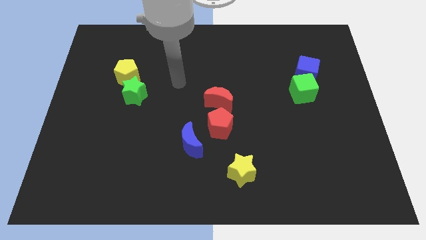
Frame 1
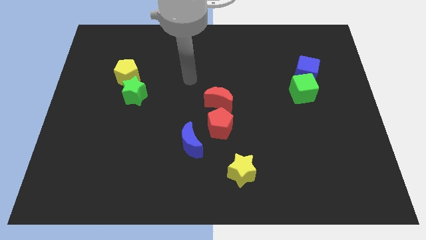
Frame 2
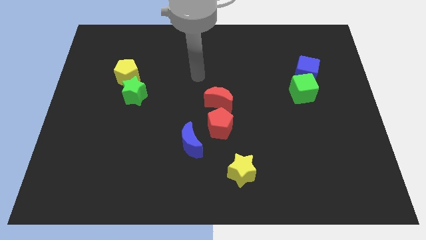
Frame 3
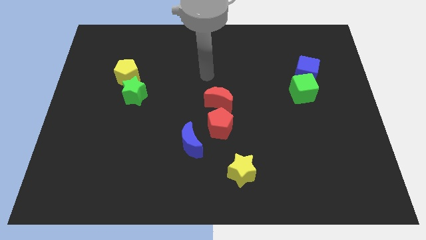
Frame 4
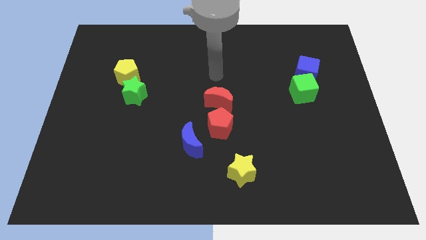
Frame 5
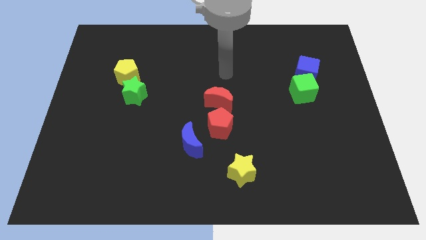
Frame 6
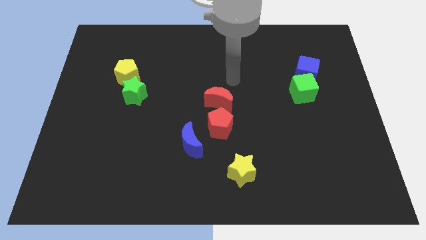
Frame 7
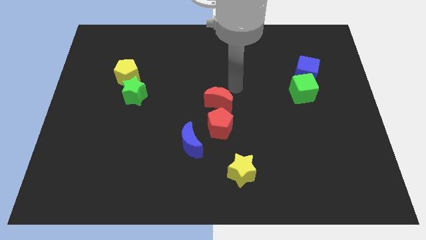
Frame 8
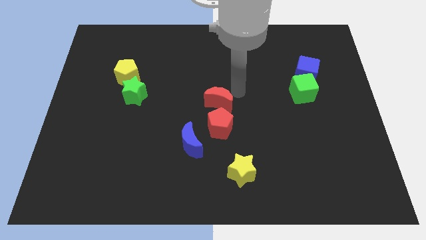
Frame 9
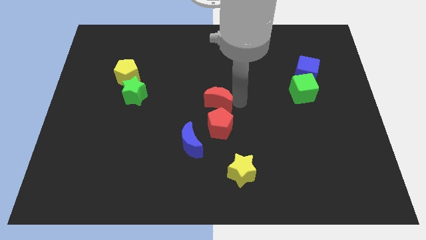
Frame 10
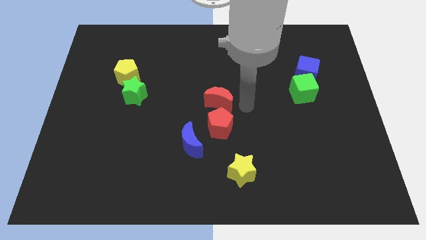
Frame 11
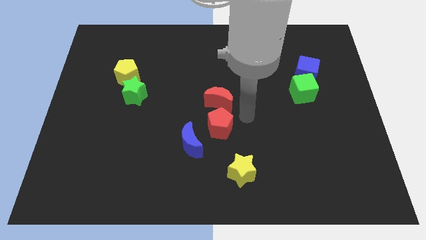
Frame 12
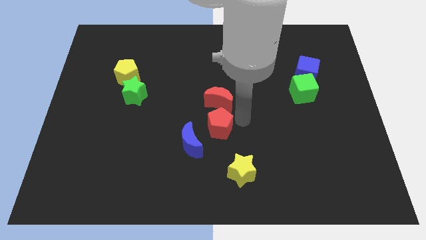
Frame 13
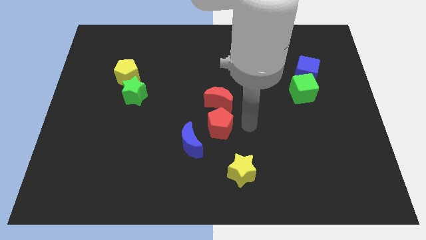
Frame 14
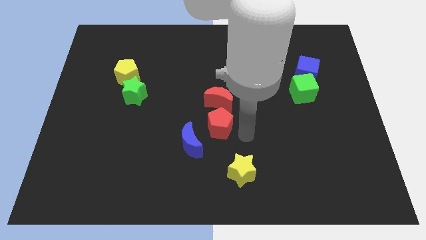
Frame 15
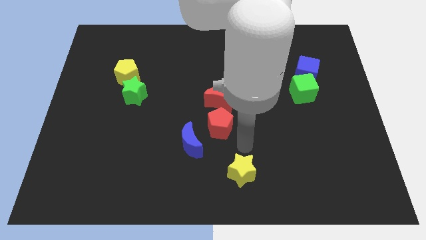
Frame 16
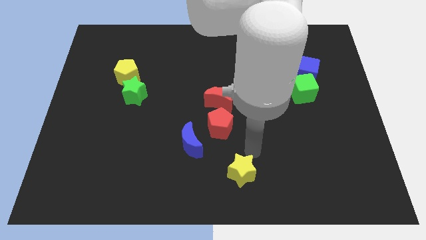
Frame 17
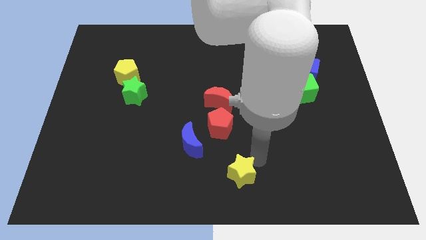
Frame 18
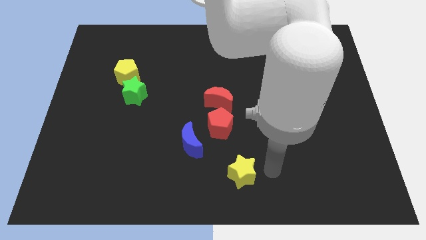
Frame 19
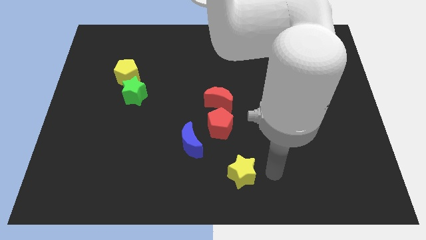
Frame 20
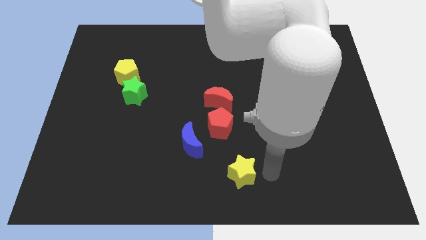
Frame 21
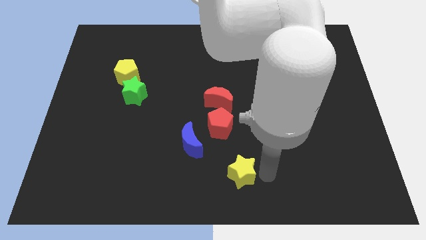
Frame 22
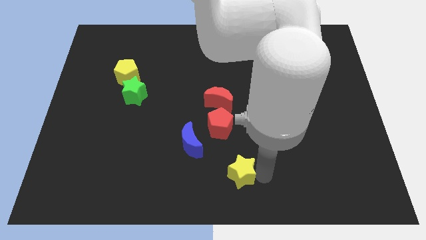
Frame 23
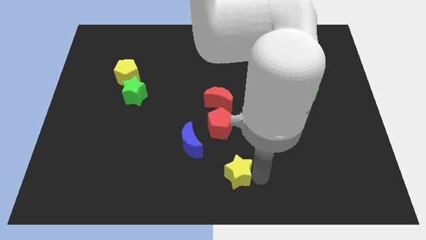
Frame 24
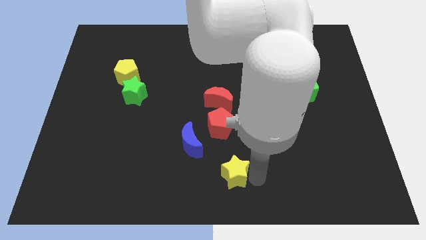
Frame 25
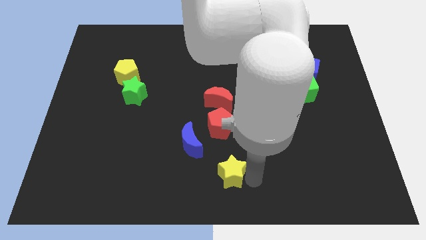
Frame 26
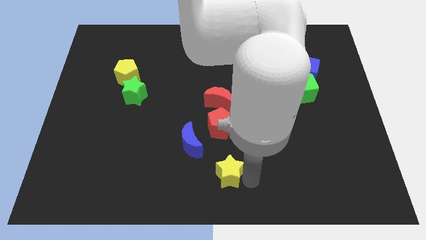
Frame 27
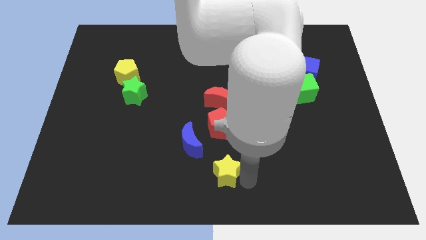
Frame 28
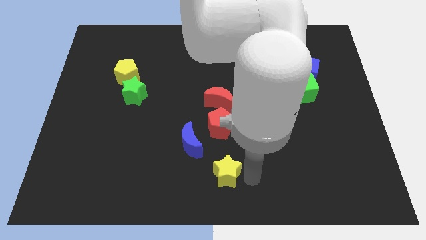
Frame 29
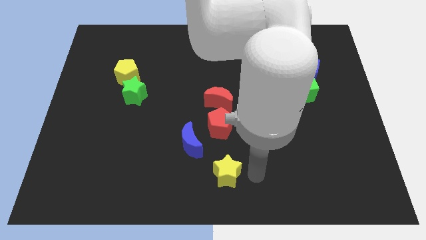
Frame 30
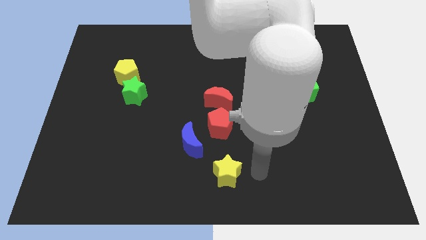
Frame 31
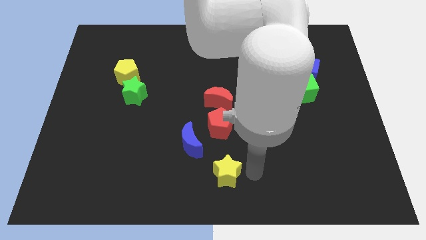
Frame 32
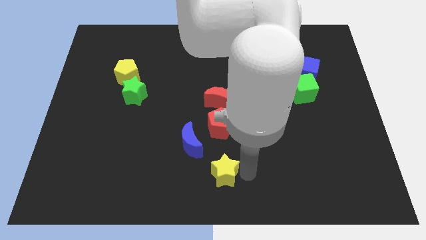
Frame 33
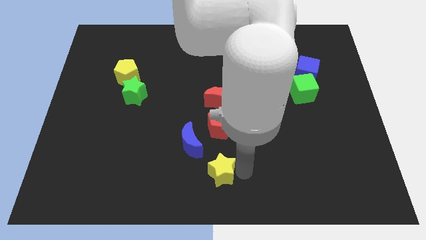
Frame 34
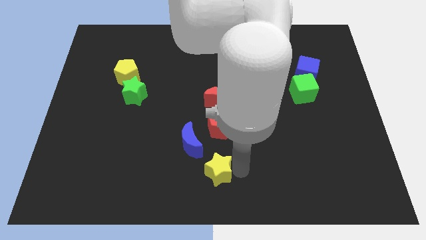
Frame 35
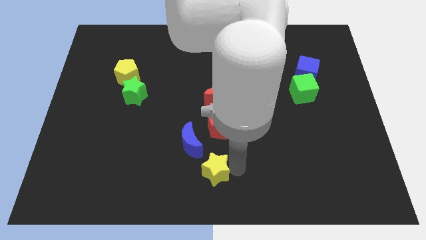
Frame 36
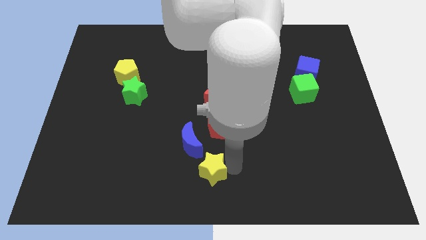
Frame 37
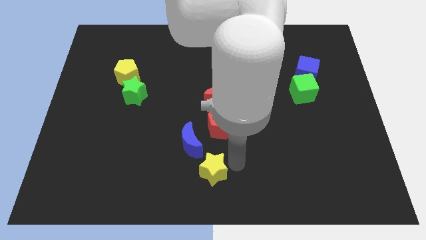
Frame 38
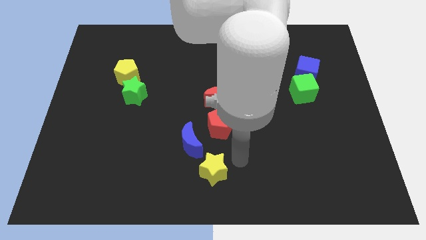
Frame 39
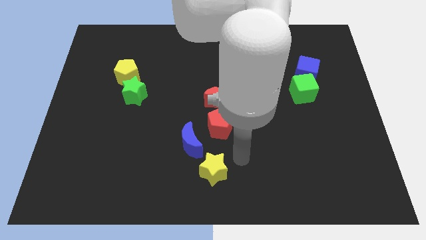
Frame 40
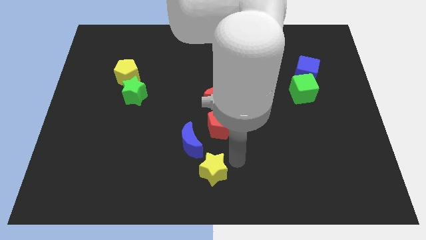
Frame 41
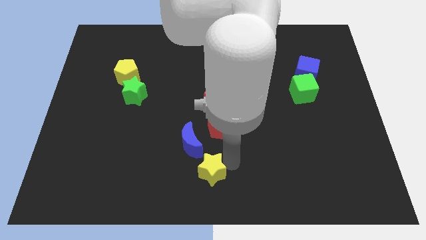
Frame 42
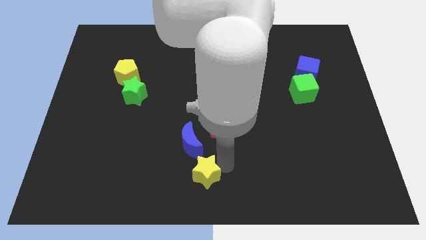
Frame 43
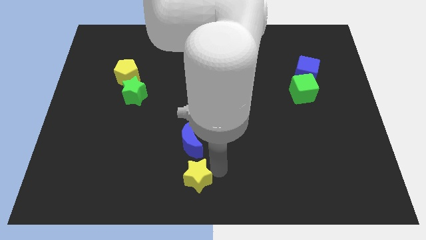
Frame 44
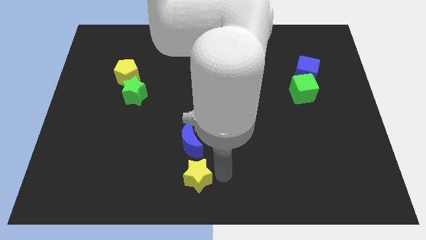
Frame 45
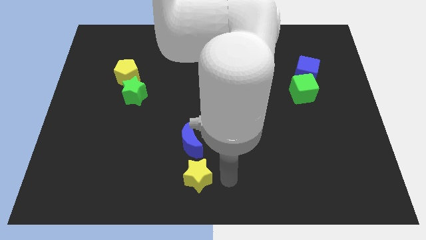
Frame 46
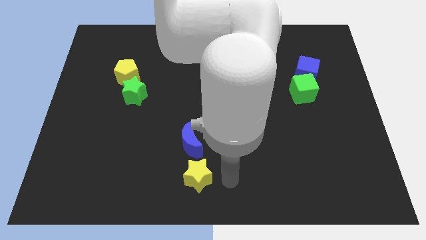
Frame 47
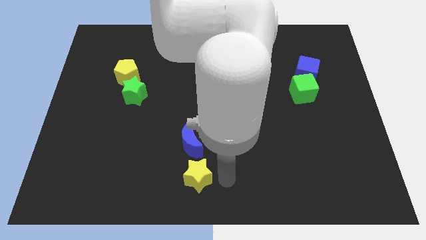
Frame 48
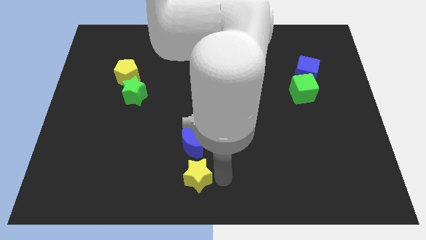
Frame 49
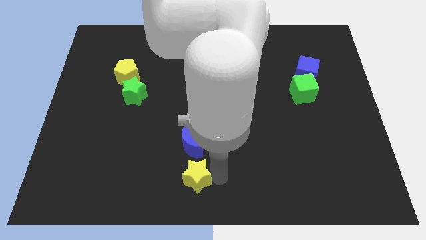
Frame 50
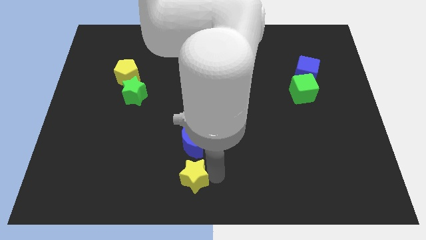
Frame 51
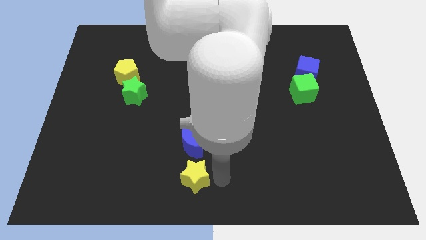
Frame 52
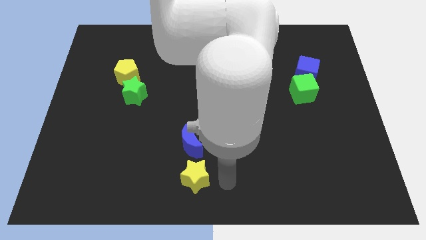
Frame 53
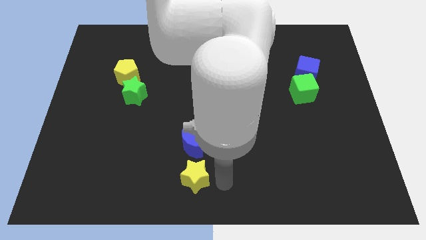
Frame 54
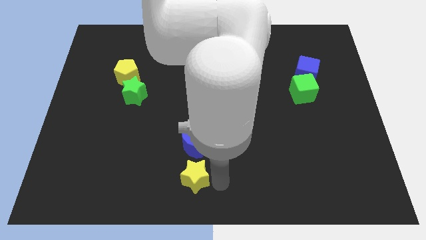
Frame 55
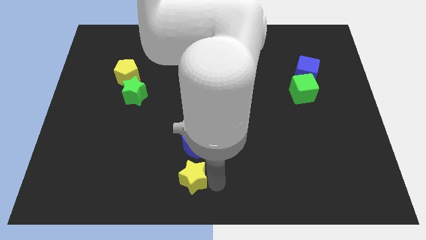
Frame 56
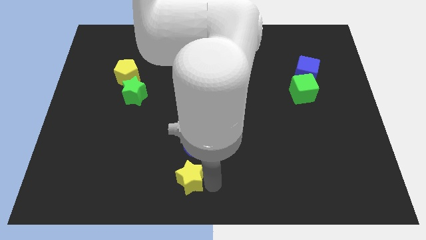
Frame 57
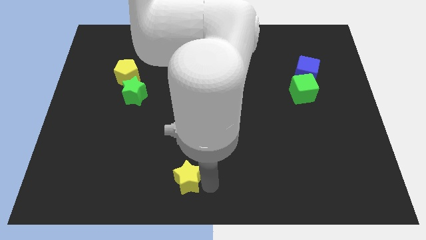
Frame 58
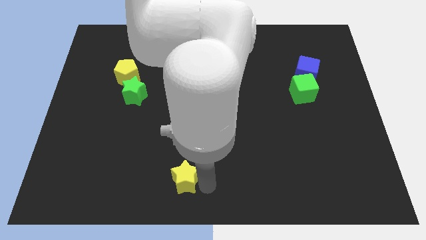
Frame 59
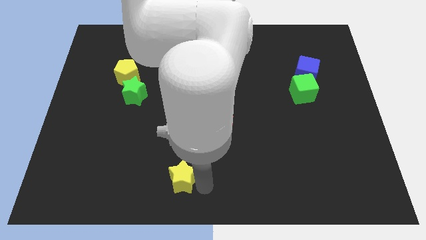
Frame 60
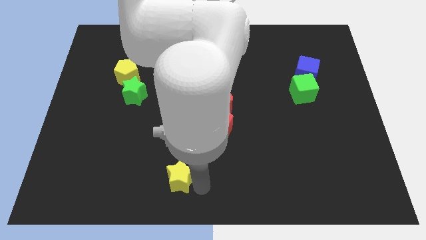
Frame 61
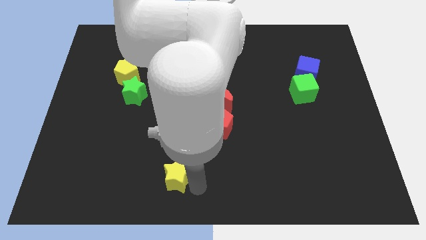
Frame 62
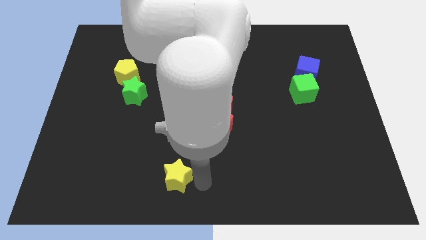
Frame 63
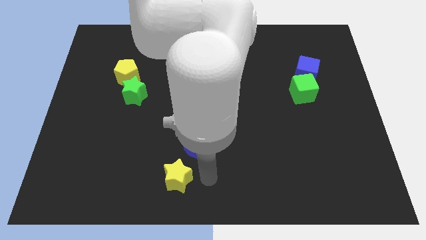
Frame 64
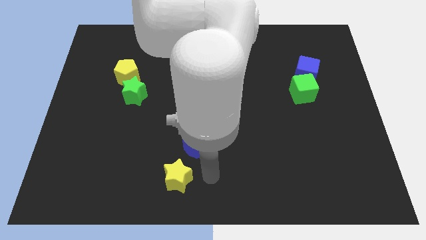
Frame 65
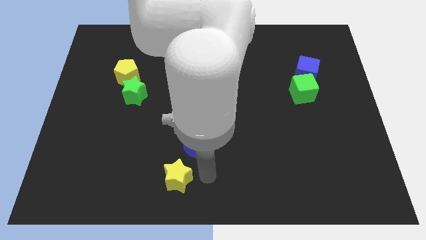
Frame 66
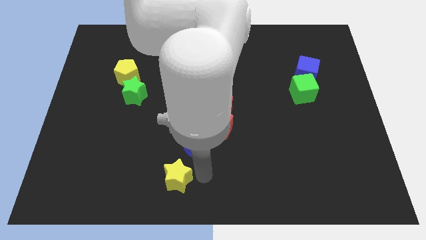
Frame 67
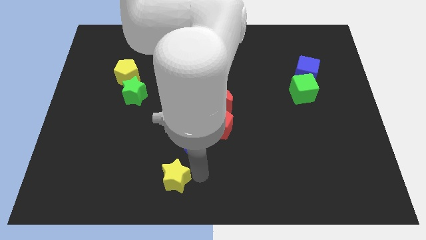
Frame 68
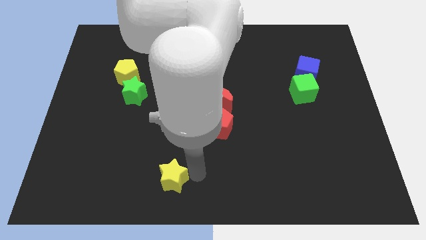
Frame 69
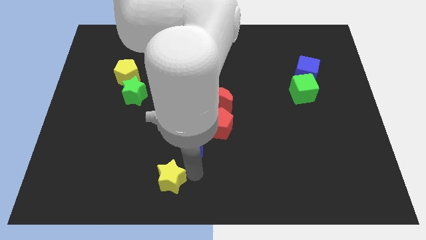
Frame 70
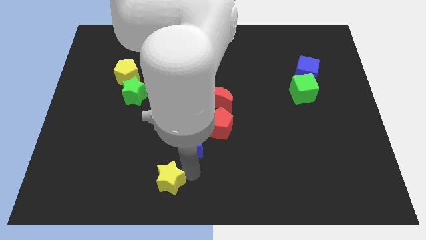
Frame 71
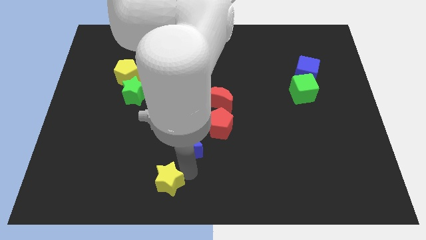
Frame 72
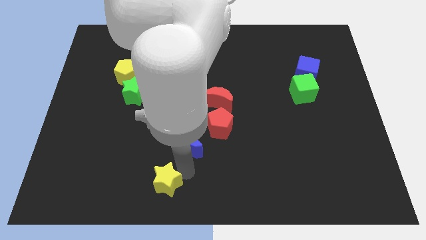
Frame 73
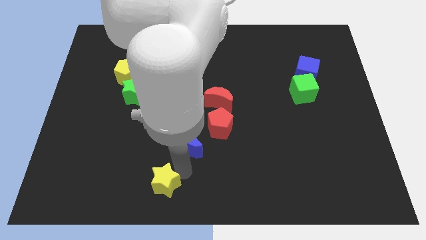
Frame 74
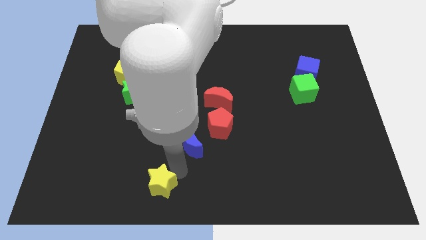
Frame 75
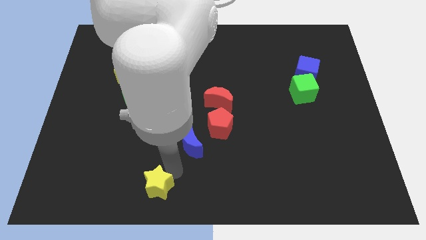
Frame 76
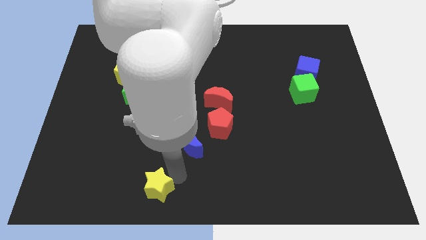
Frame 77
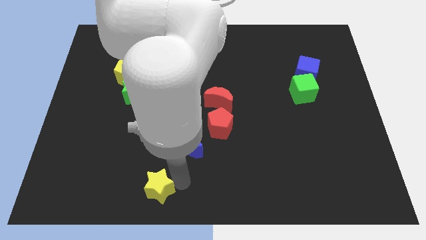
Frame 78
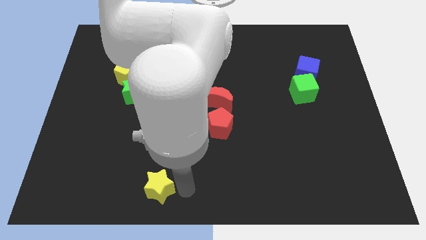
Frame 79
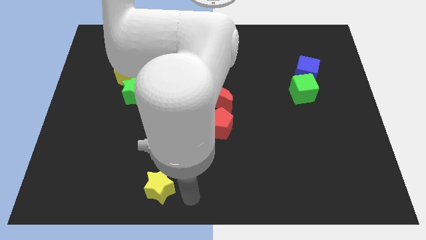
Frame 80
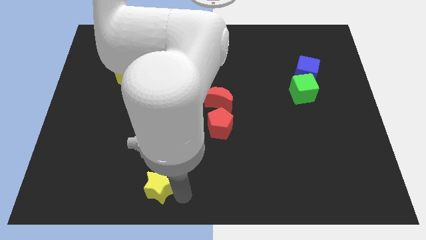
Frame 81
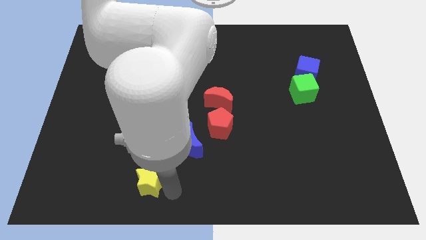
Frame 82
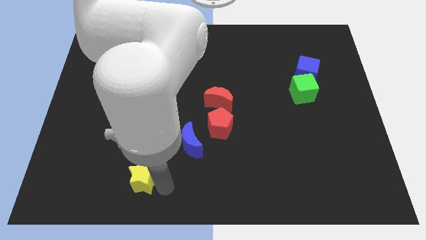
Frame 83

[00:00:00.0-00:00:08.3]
slide the yellow star to the left
